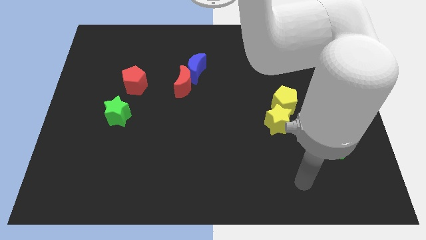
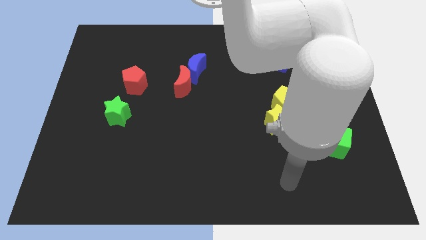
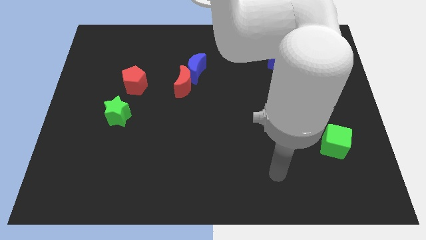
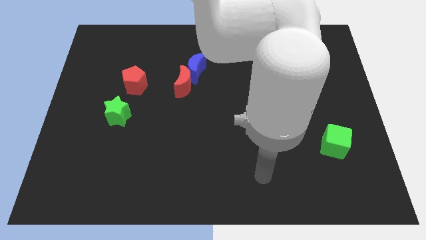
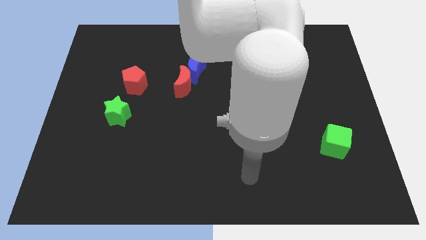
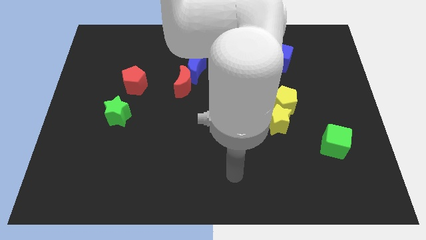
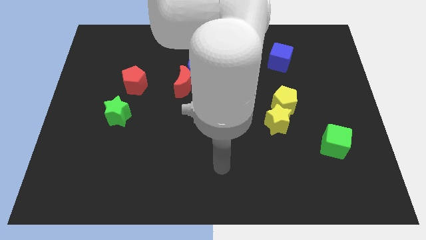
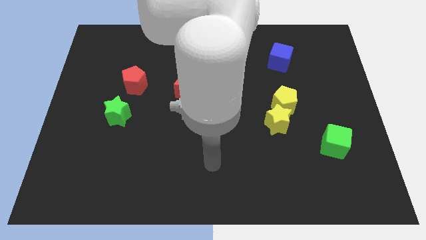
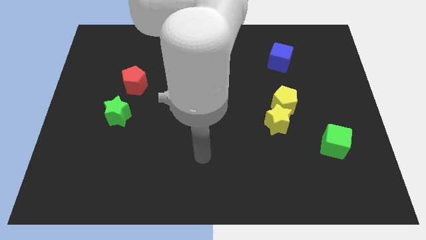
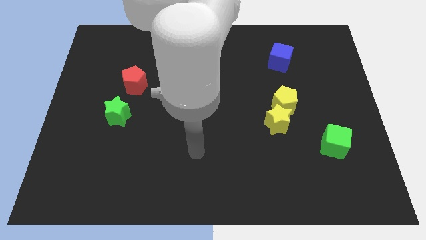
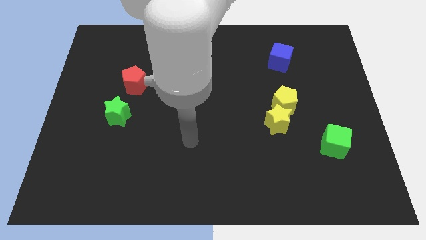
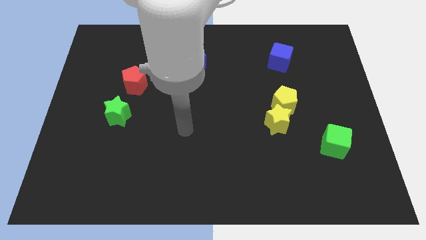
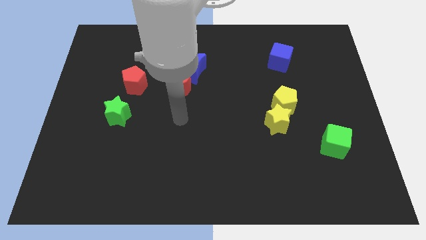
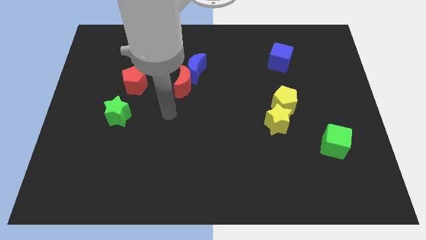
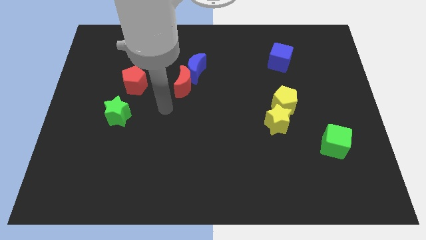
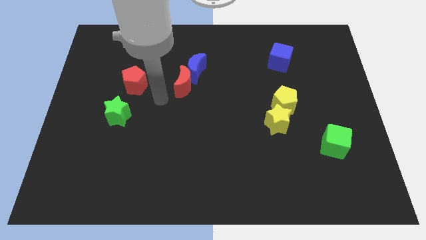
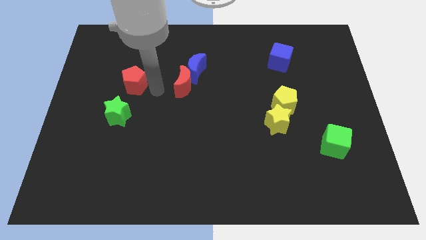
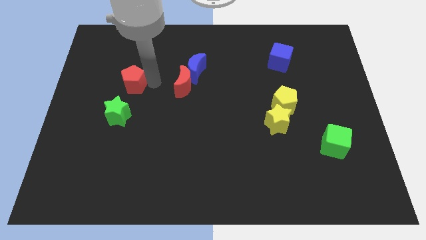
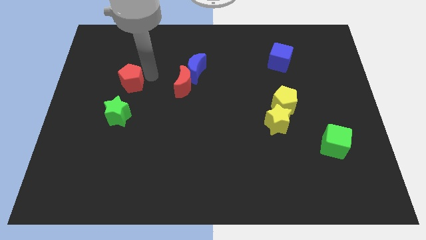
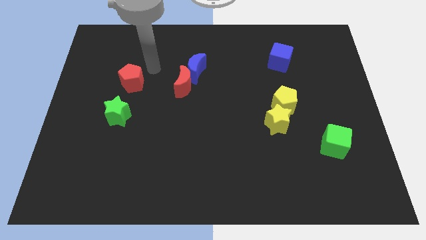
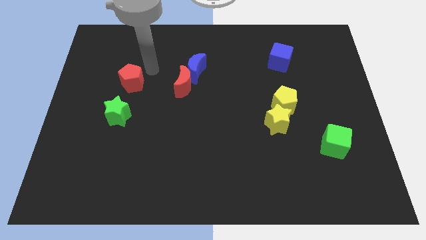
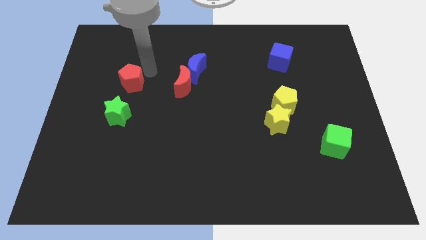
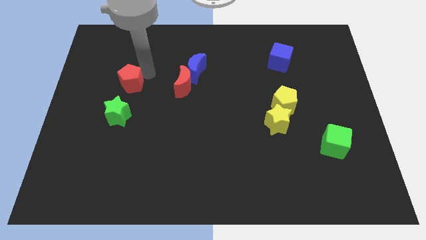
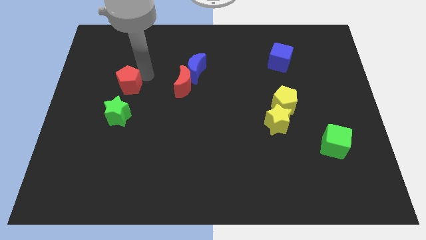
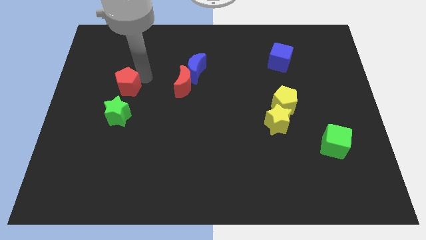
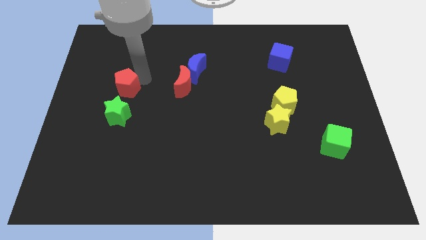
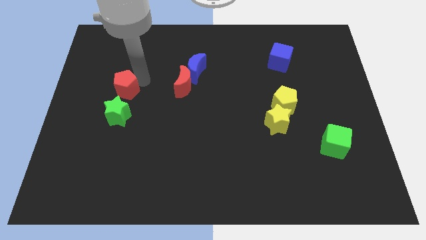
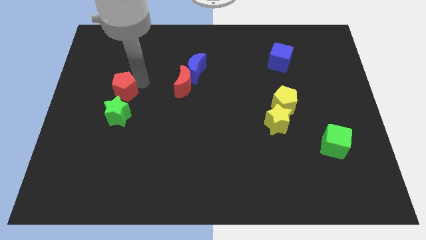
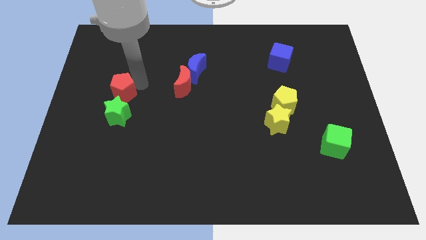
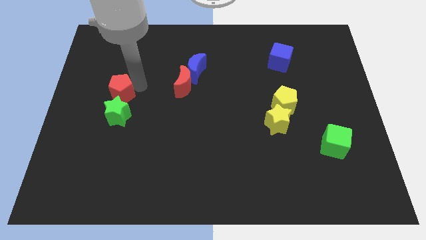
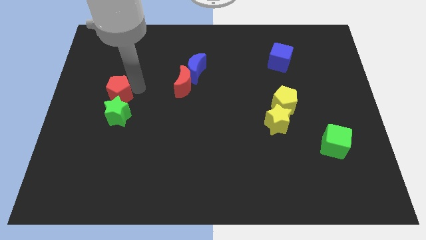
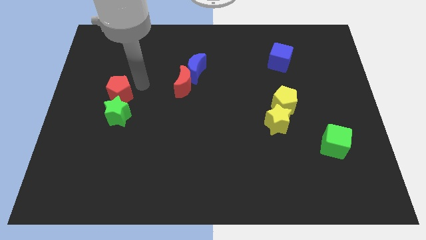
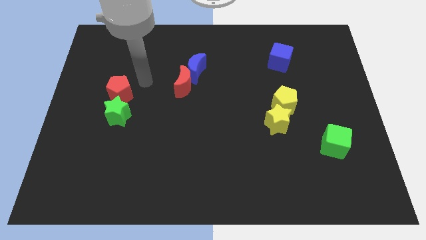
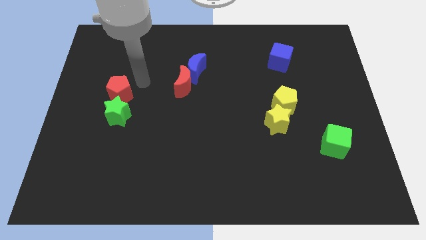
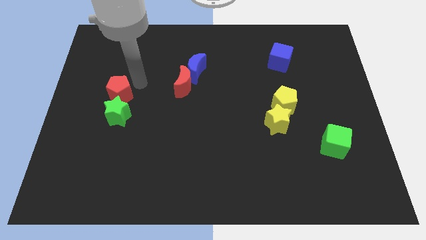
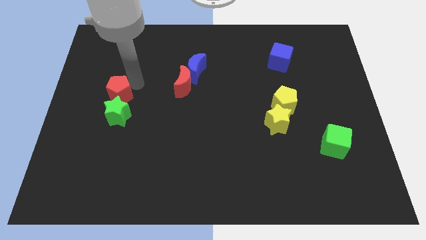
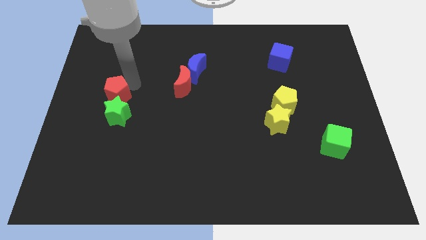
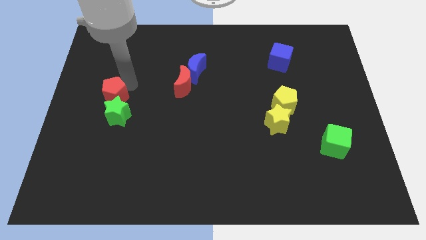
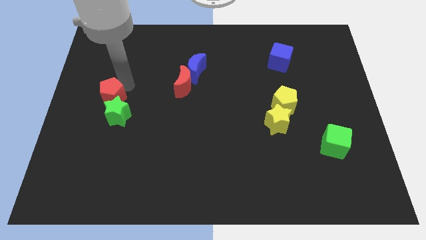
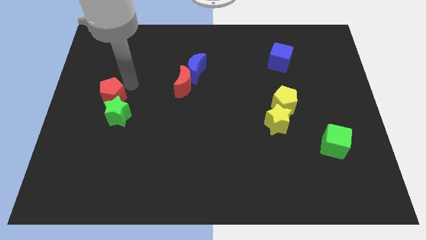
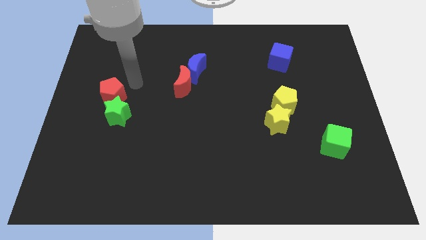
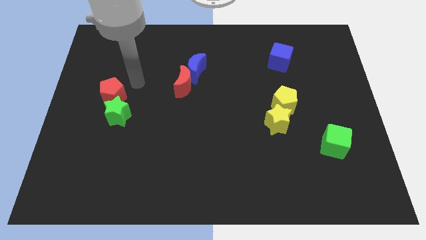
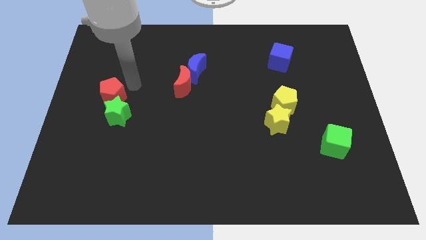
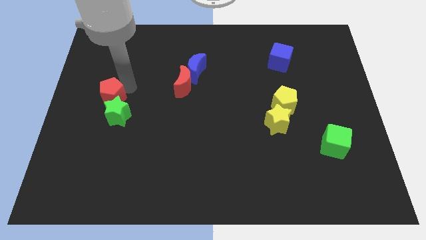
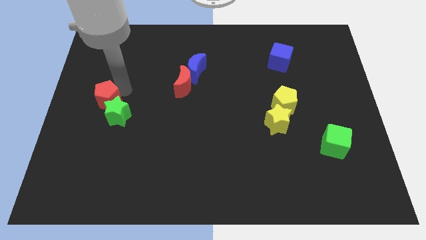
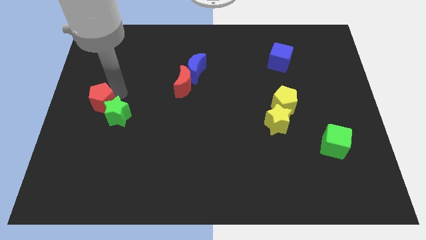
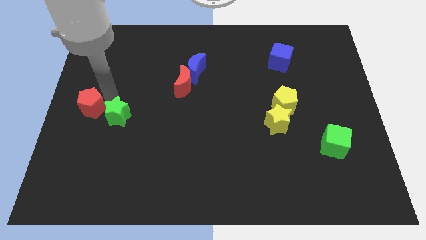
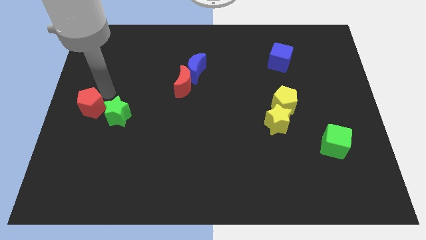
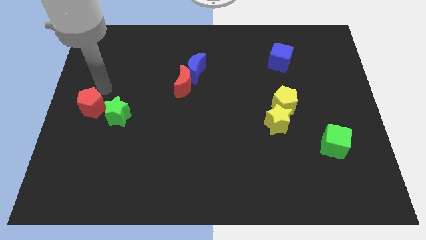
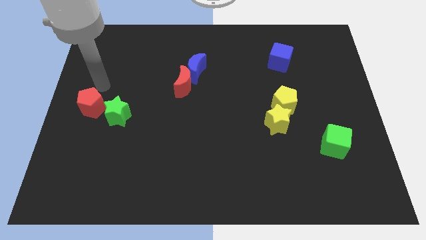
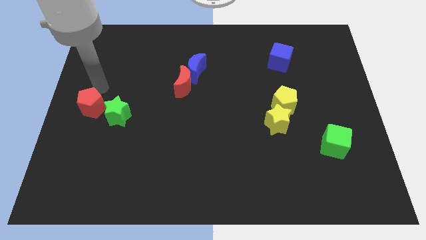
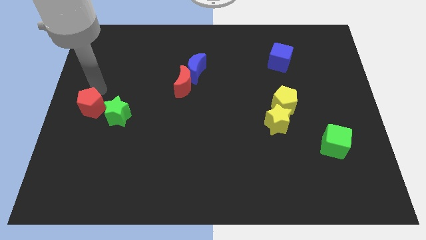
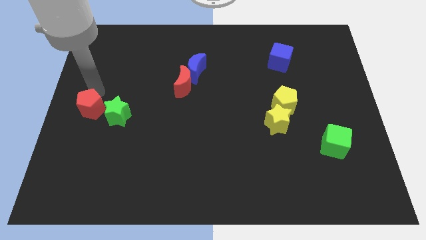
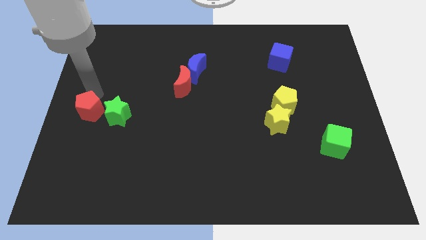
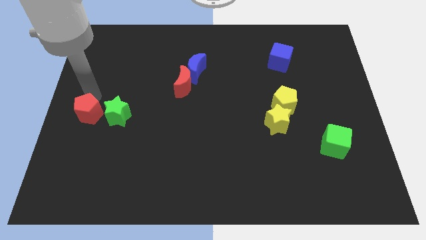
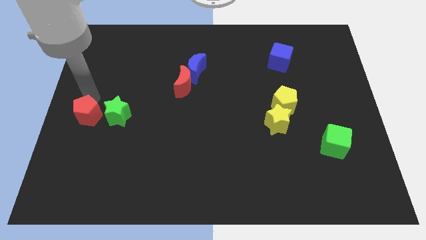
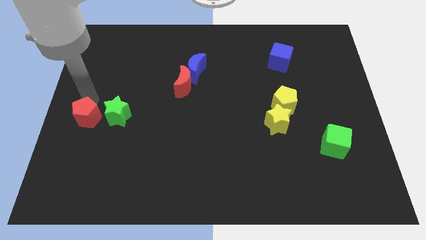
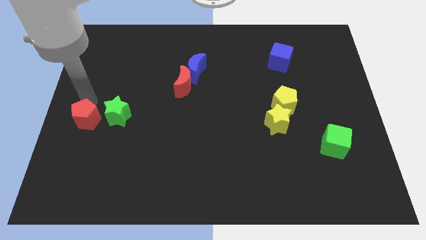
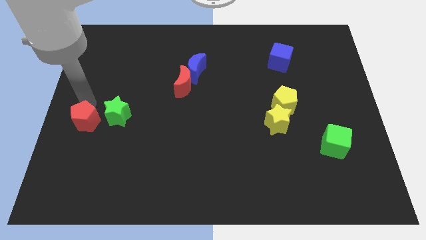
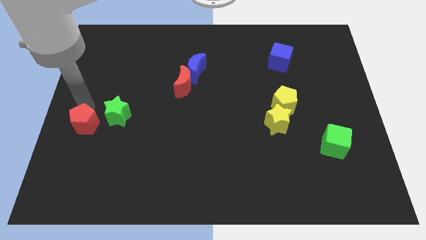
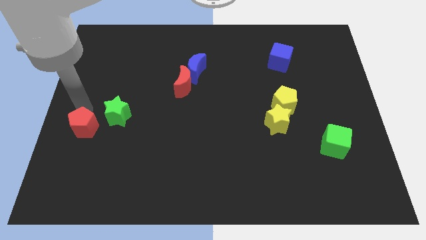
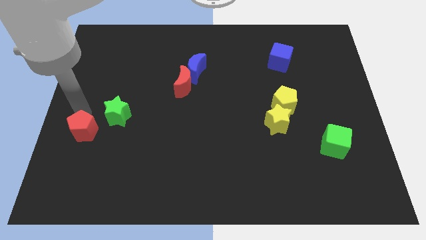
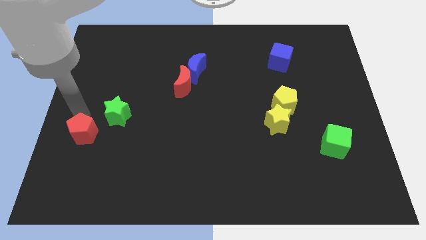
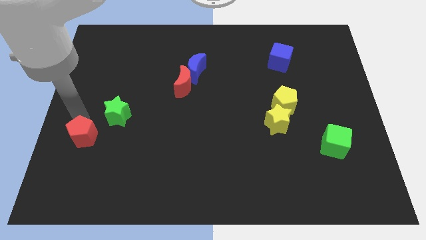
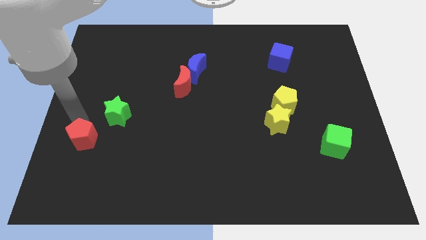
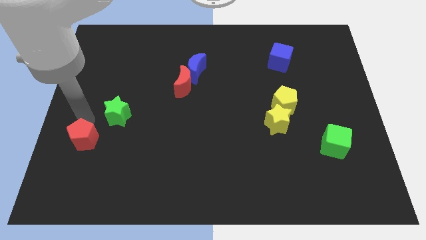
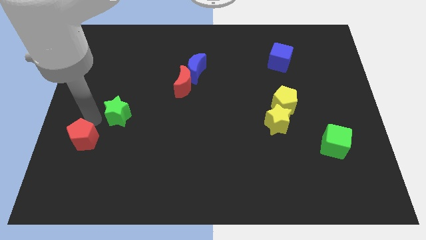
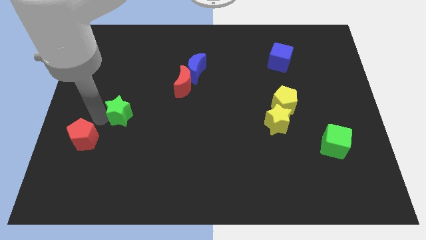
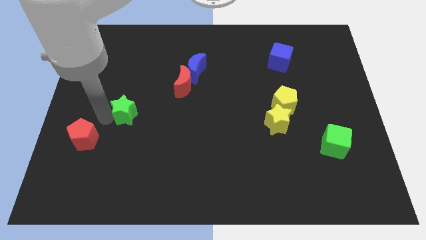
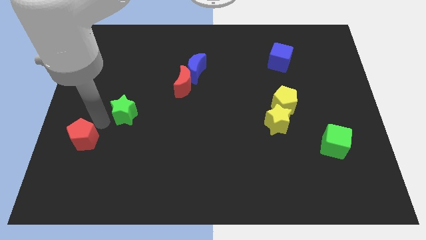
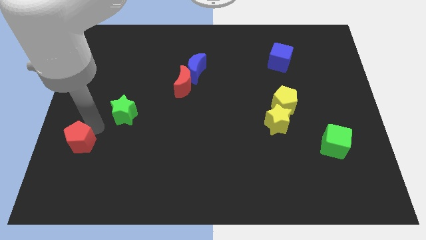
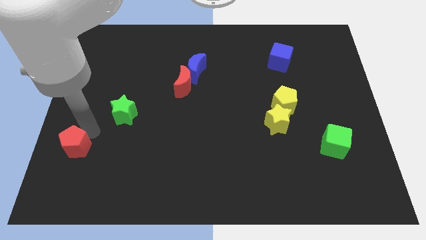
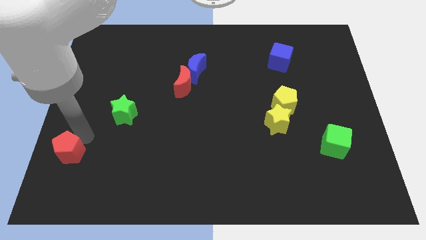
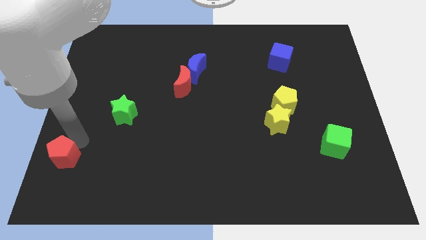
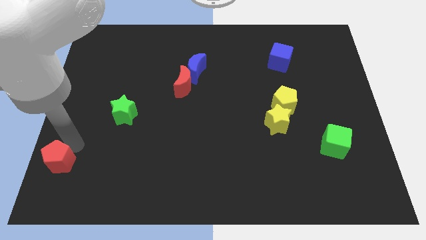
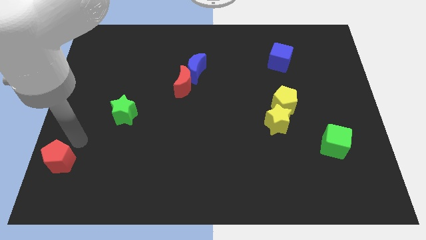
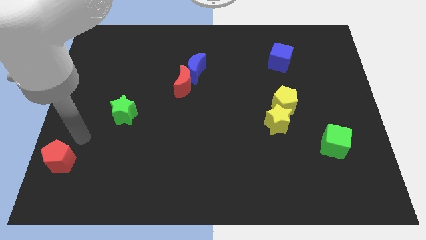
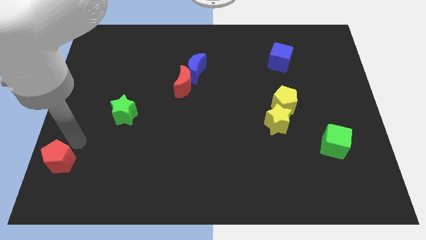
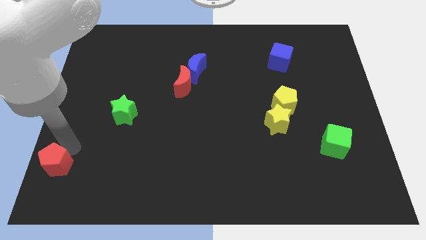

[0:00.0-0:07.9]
move the red pentagon to the bottom left
